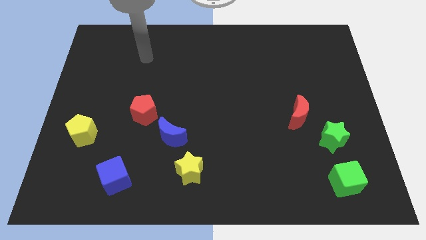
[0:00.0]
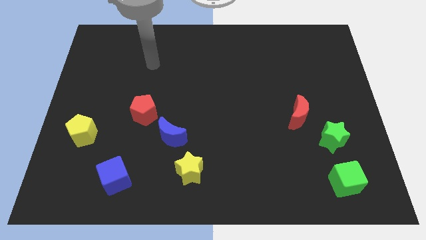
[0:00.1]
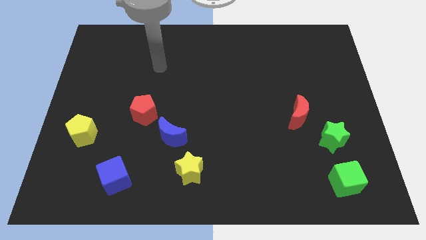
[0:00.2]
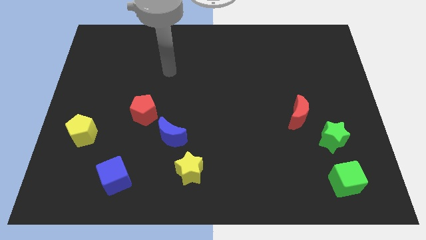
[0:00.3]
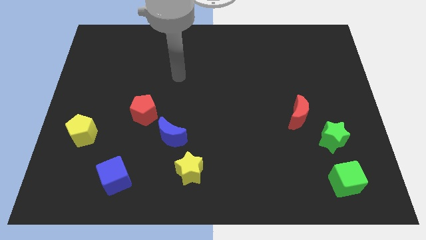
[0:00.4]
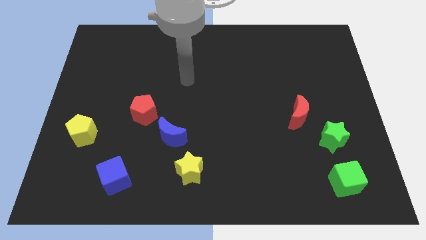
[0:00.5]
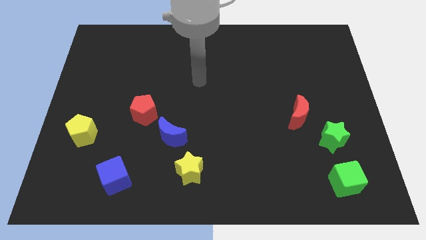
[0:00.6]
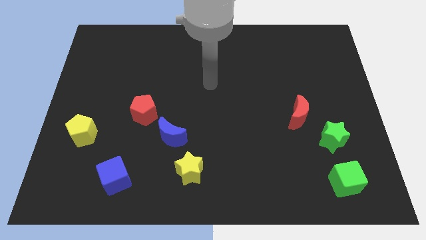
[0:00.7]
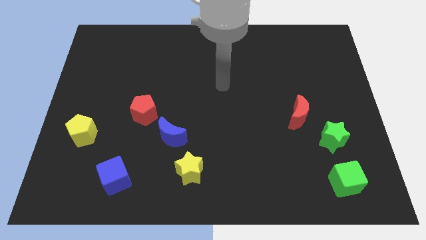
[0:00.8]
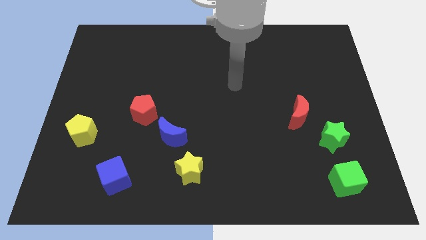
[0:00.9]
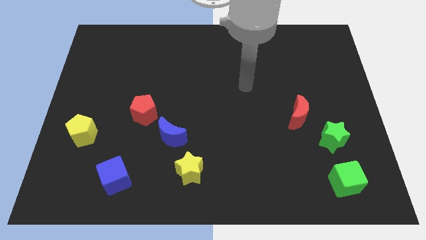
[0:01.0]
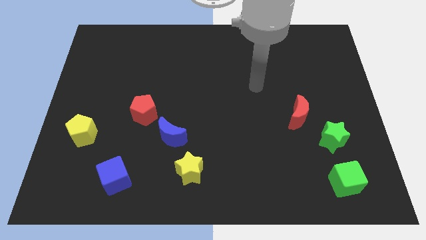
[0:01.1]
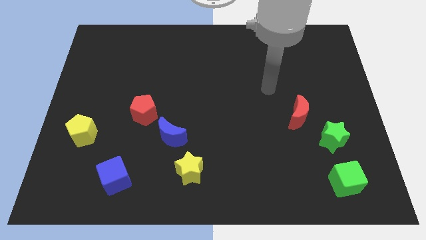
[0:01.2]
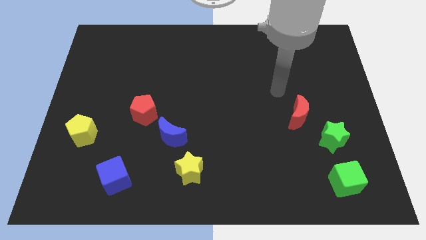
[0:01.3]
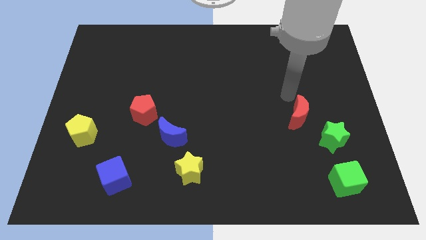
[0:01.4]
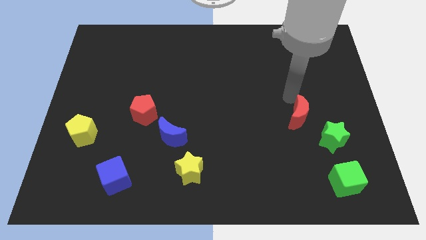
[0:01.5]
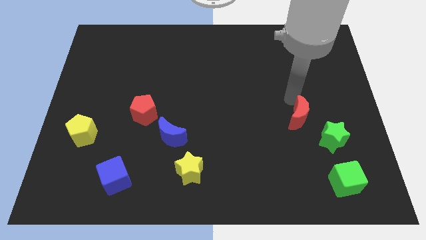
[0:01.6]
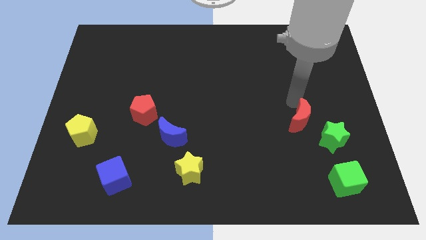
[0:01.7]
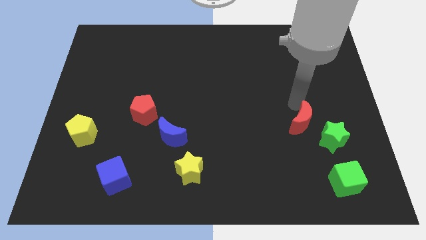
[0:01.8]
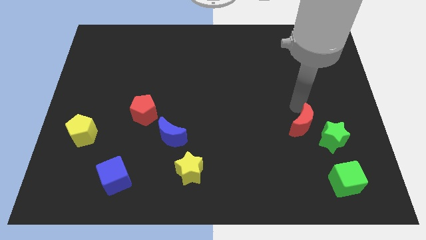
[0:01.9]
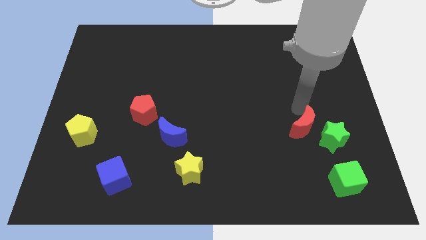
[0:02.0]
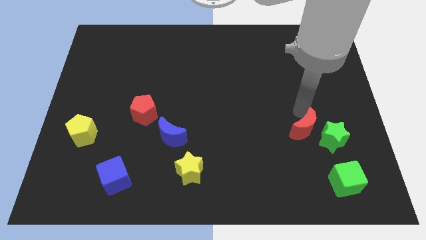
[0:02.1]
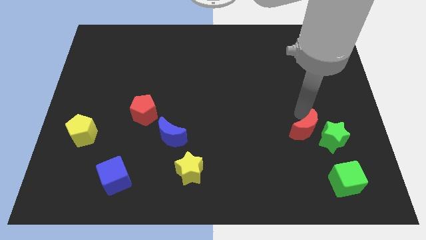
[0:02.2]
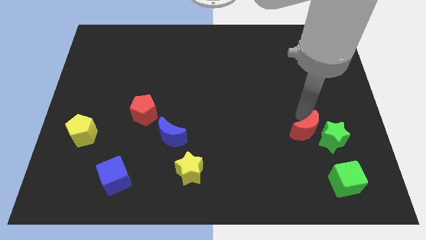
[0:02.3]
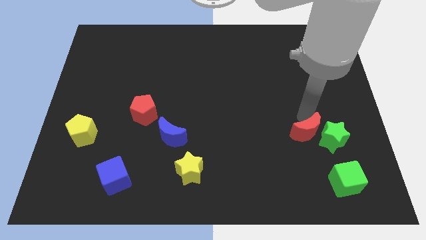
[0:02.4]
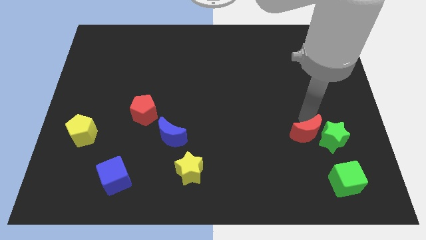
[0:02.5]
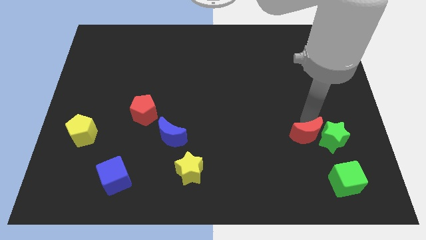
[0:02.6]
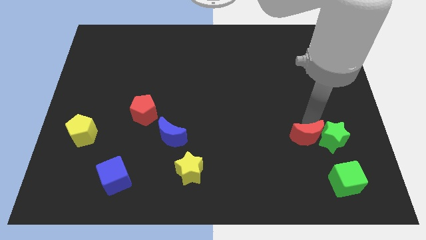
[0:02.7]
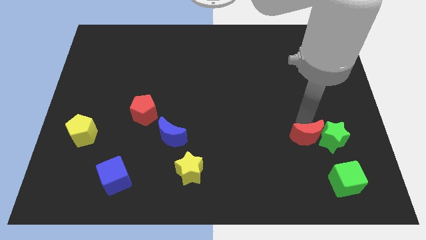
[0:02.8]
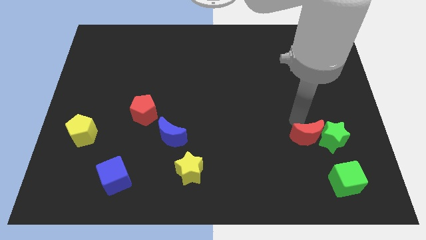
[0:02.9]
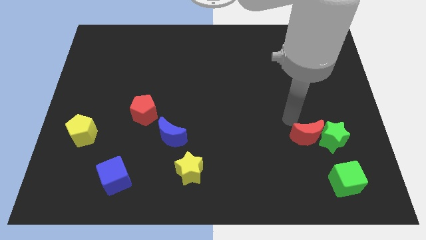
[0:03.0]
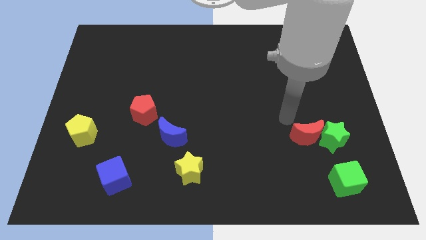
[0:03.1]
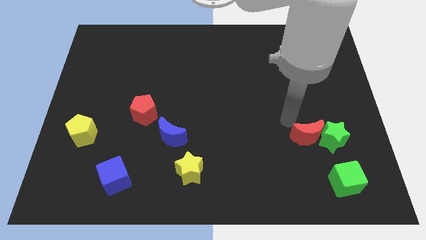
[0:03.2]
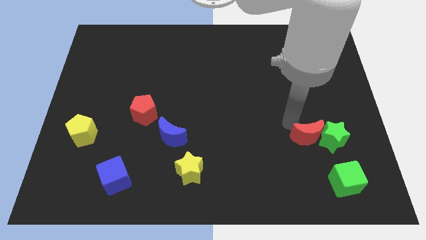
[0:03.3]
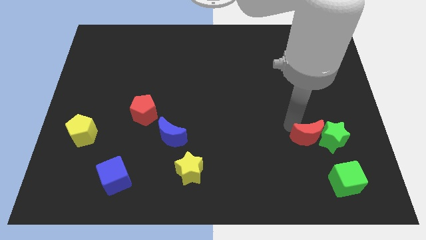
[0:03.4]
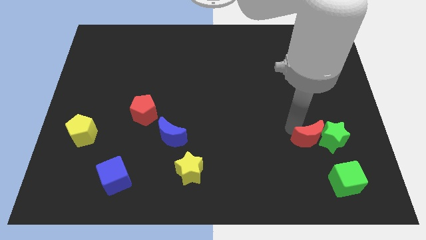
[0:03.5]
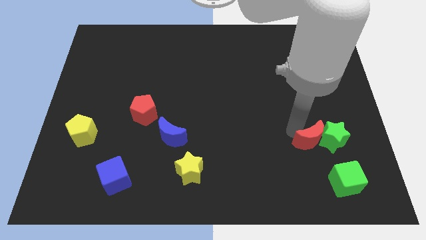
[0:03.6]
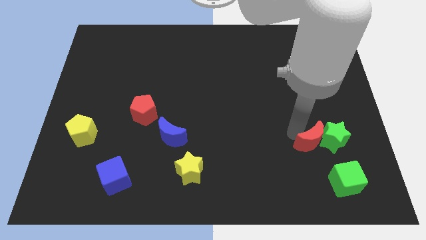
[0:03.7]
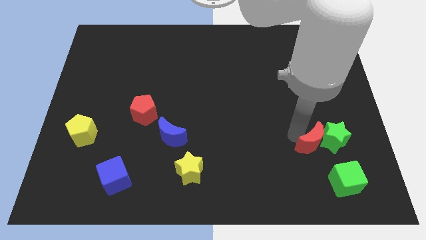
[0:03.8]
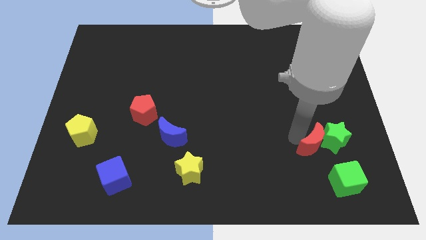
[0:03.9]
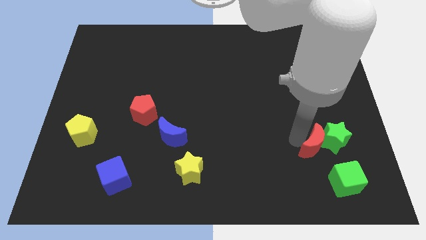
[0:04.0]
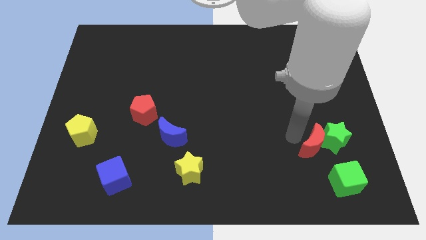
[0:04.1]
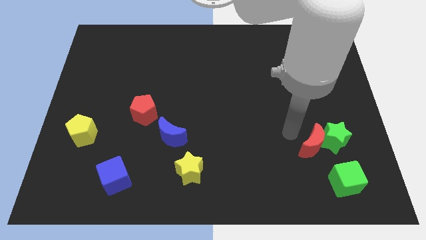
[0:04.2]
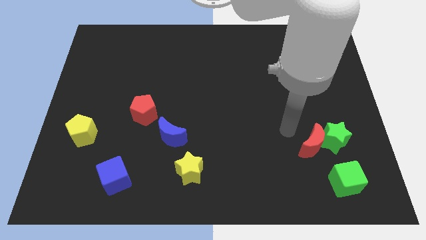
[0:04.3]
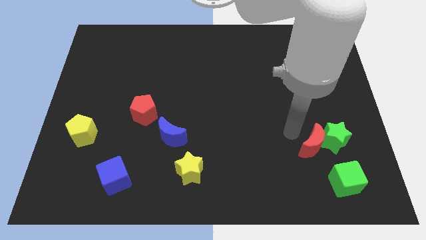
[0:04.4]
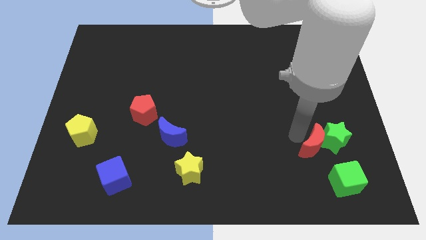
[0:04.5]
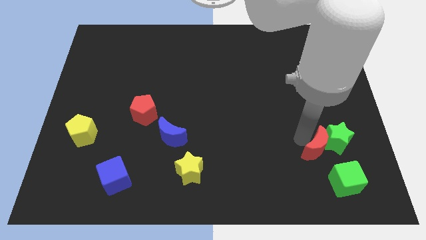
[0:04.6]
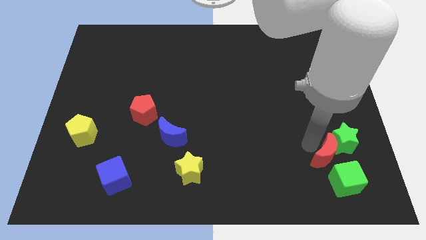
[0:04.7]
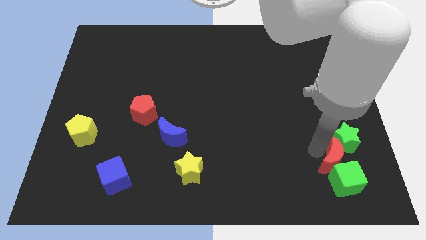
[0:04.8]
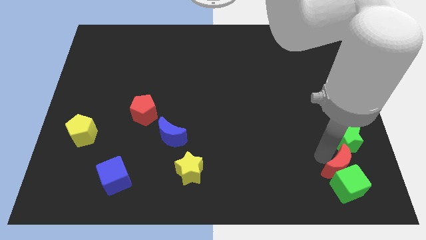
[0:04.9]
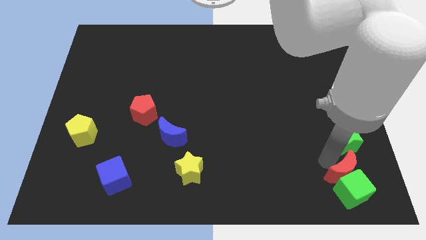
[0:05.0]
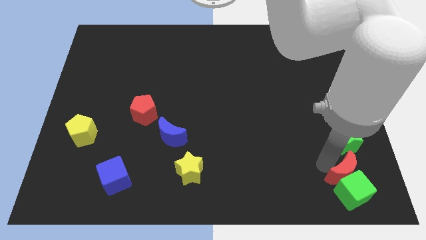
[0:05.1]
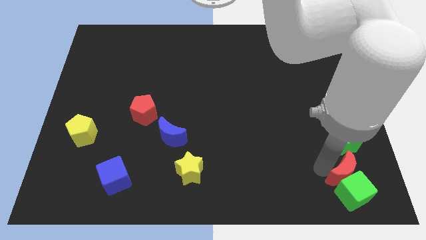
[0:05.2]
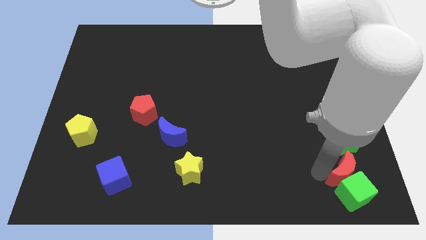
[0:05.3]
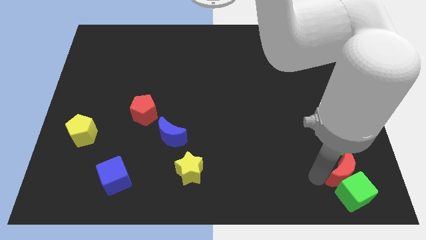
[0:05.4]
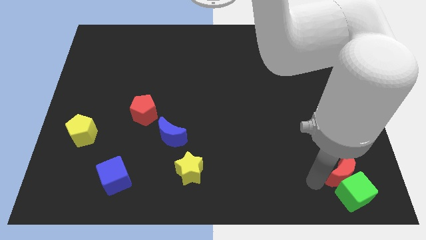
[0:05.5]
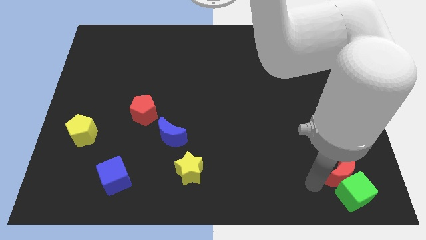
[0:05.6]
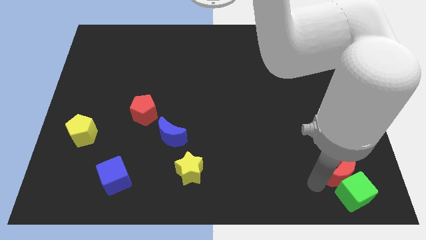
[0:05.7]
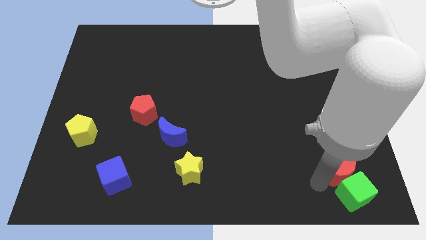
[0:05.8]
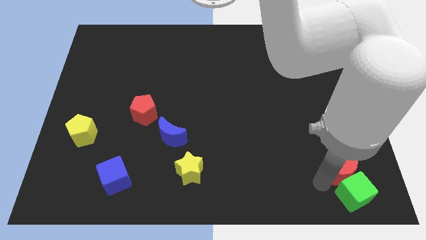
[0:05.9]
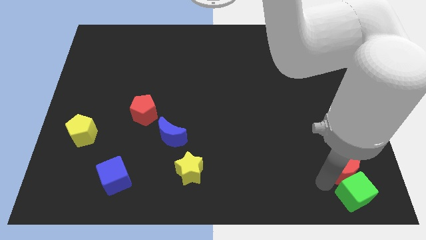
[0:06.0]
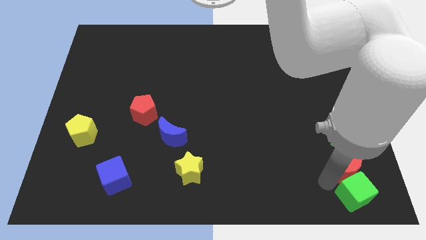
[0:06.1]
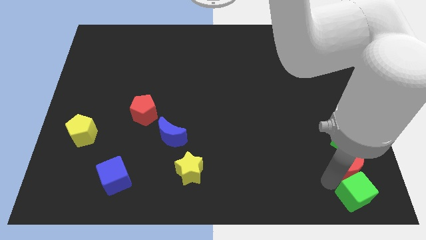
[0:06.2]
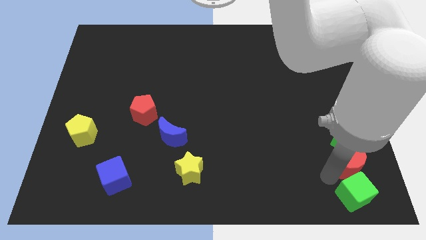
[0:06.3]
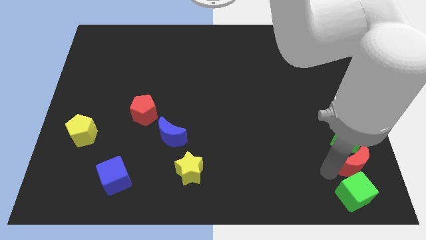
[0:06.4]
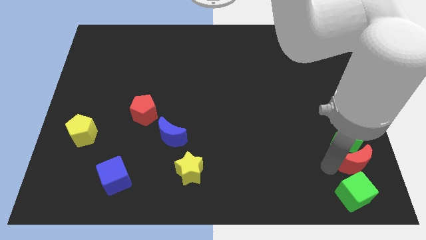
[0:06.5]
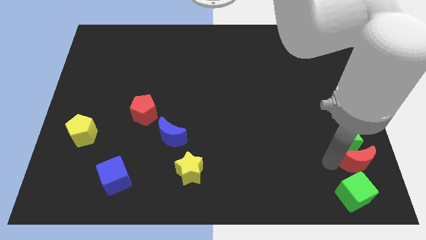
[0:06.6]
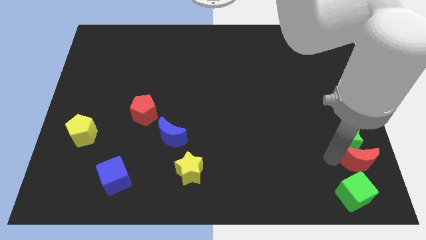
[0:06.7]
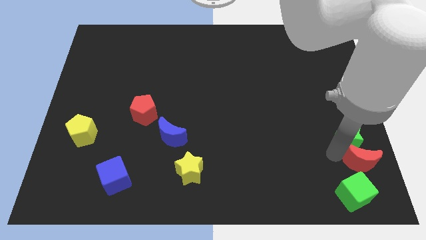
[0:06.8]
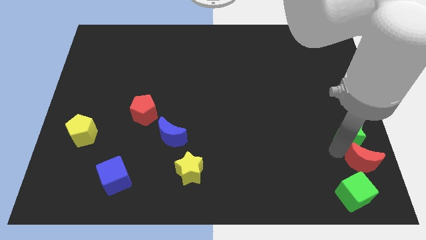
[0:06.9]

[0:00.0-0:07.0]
slide the red moon to the bottom right of the board
